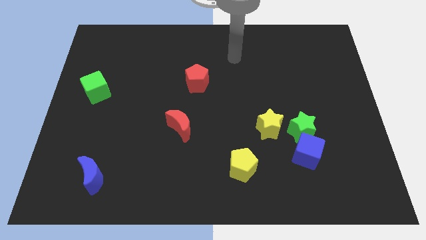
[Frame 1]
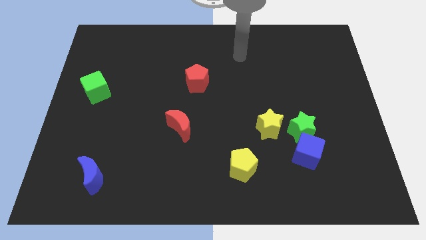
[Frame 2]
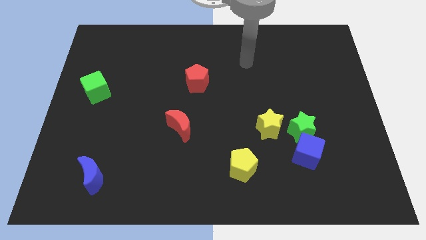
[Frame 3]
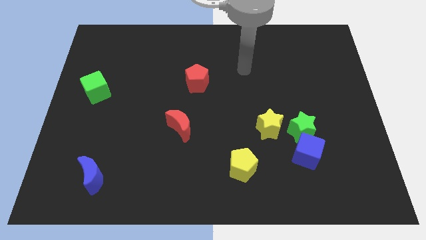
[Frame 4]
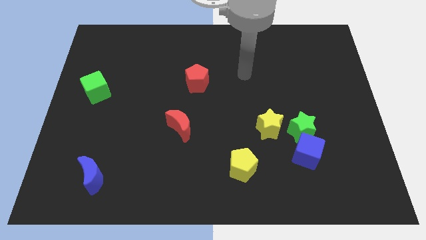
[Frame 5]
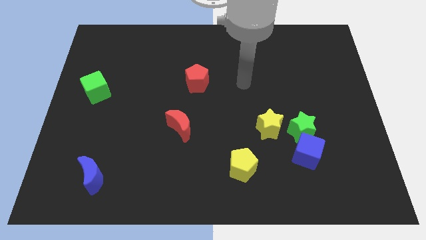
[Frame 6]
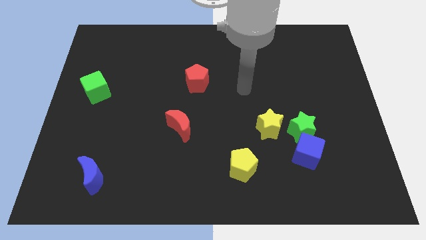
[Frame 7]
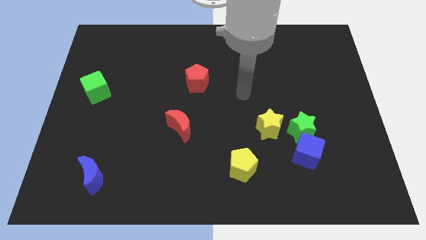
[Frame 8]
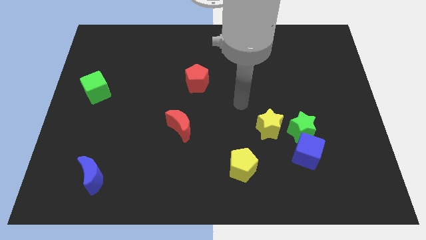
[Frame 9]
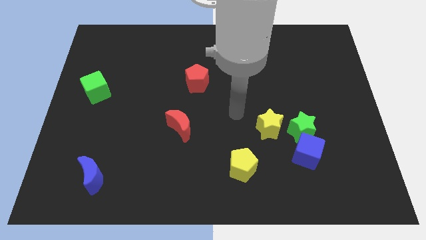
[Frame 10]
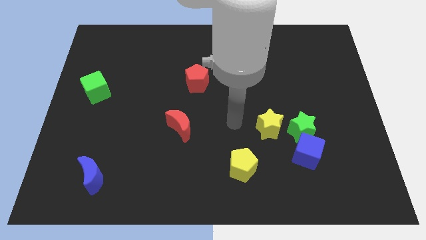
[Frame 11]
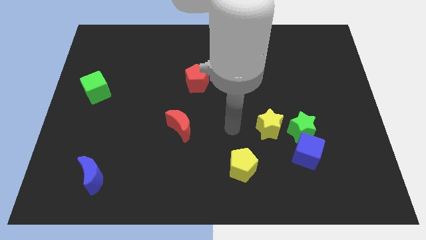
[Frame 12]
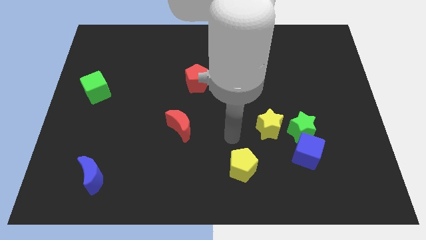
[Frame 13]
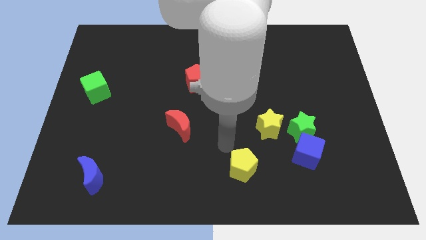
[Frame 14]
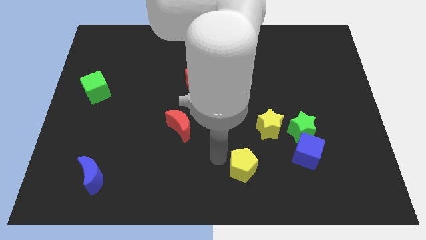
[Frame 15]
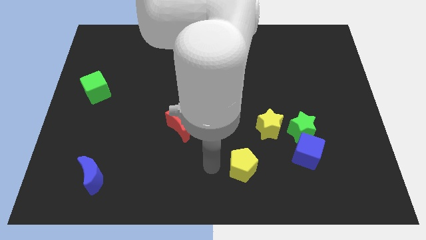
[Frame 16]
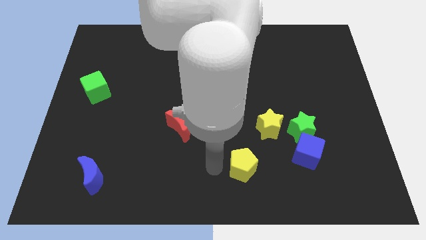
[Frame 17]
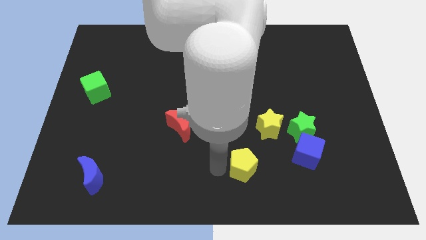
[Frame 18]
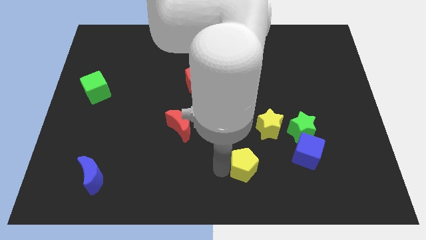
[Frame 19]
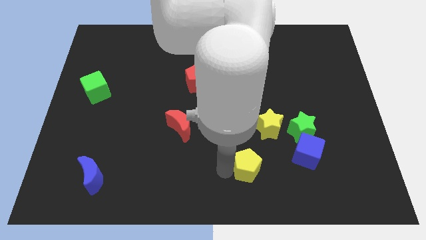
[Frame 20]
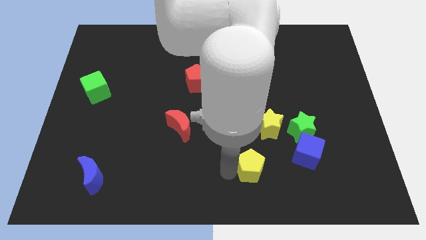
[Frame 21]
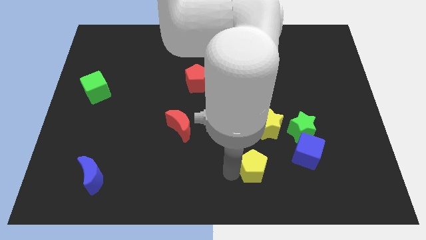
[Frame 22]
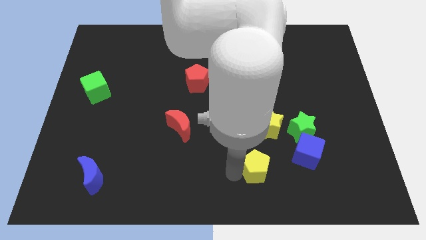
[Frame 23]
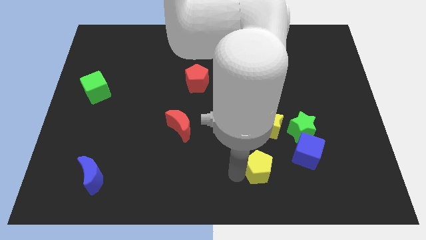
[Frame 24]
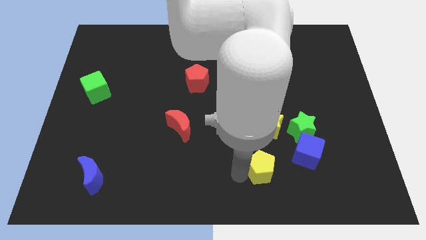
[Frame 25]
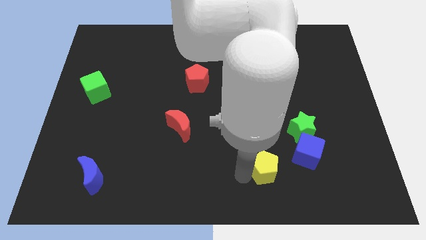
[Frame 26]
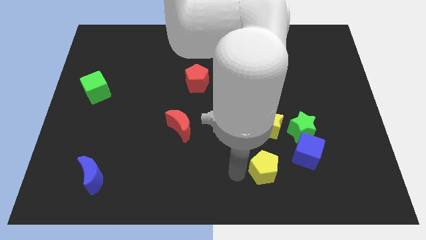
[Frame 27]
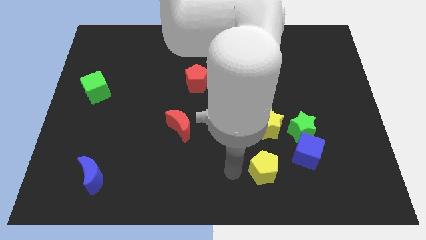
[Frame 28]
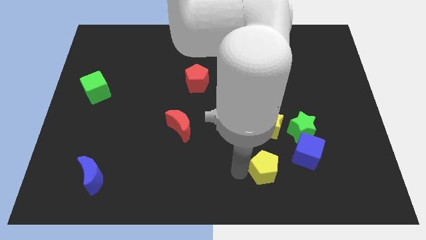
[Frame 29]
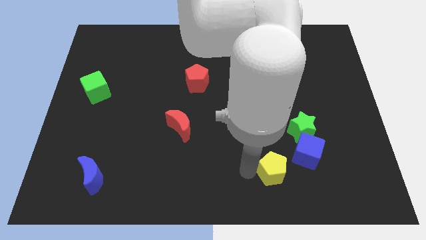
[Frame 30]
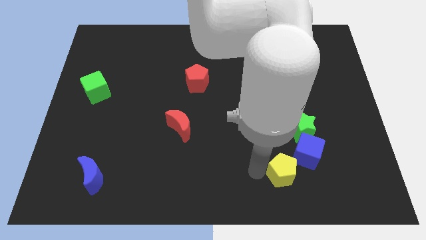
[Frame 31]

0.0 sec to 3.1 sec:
slightly slide the yellow pentagon right

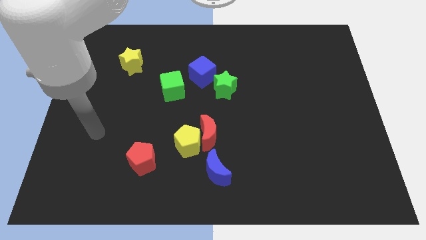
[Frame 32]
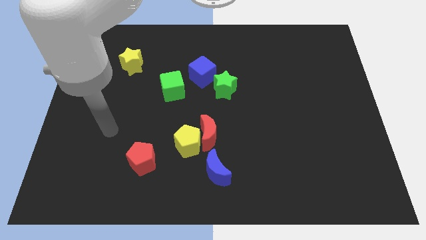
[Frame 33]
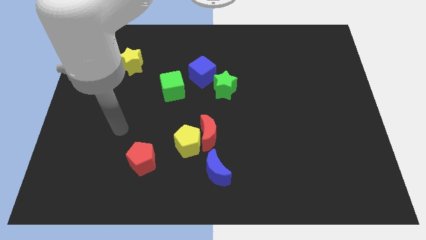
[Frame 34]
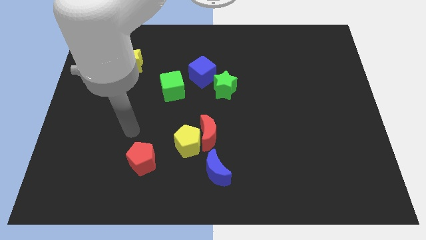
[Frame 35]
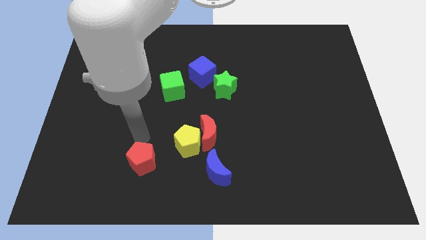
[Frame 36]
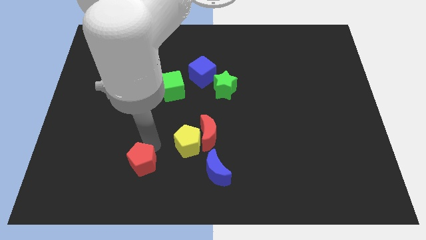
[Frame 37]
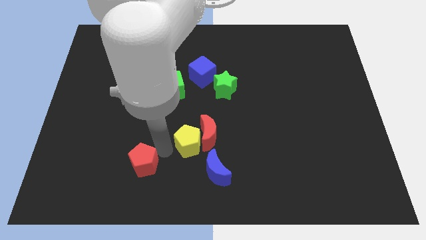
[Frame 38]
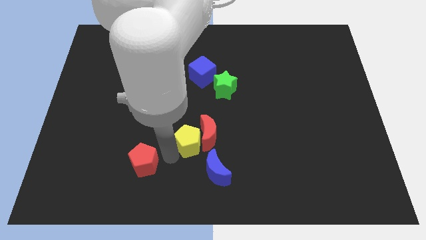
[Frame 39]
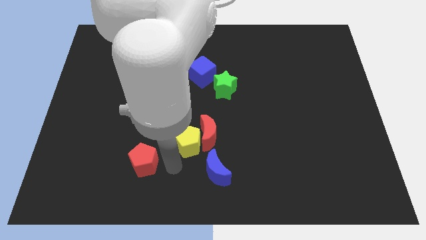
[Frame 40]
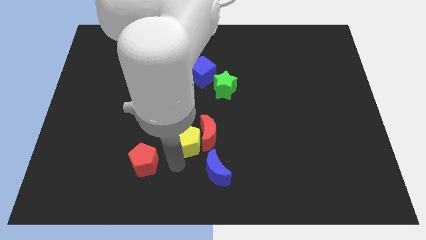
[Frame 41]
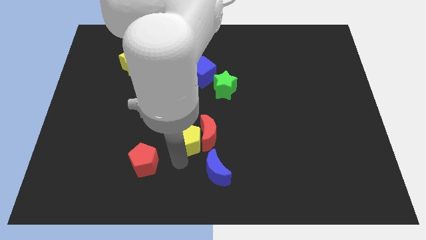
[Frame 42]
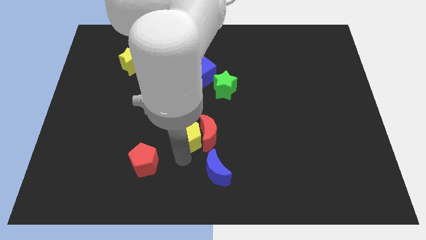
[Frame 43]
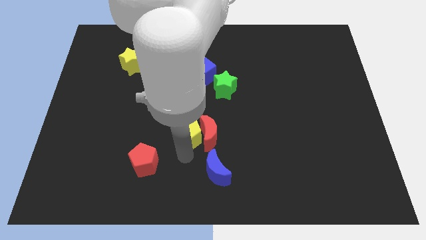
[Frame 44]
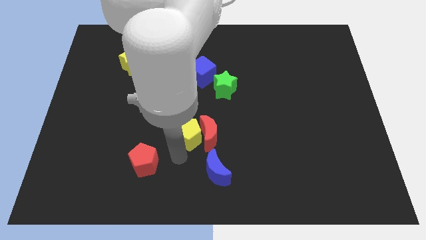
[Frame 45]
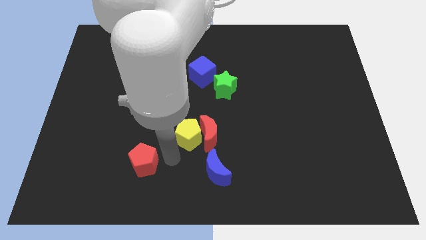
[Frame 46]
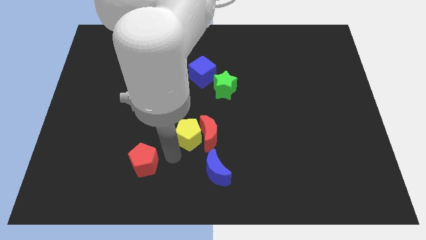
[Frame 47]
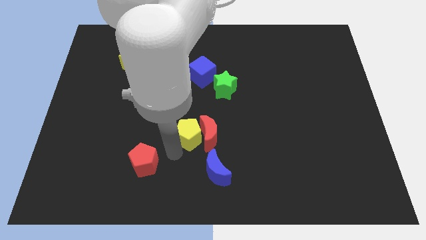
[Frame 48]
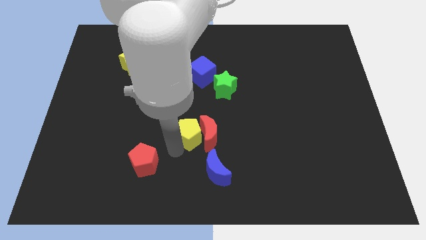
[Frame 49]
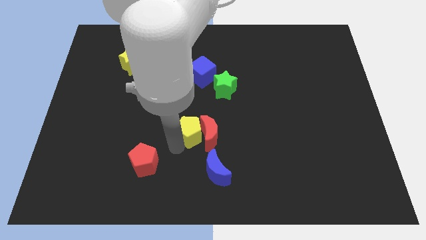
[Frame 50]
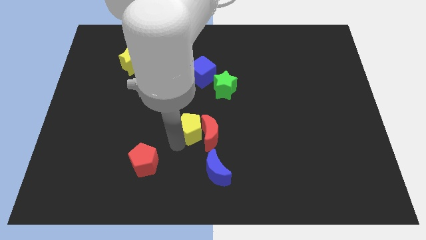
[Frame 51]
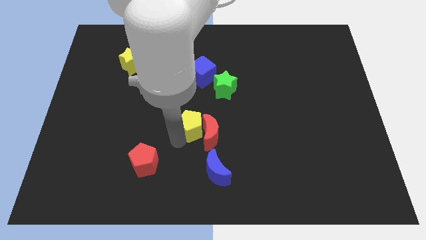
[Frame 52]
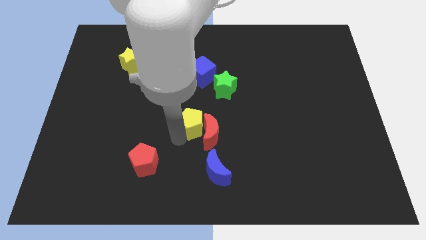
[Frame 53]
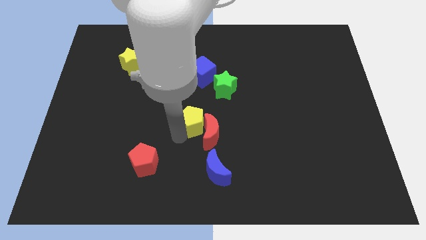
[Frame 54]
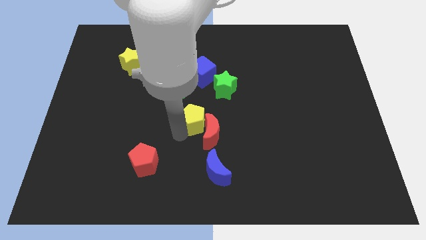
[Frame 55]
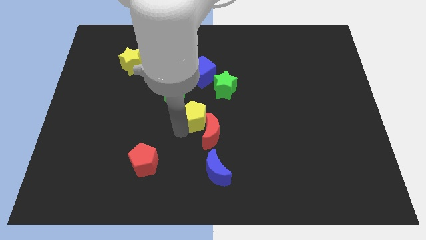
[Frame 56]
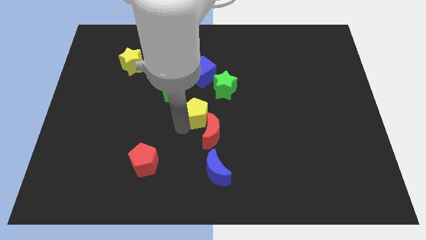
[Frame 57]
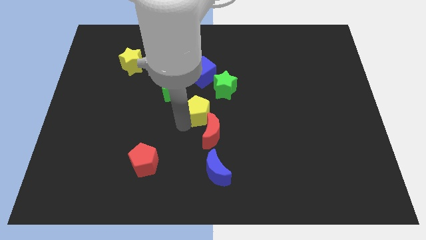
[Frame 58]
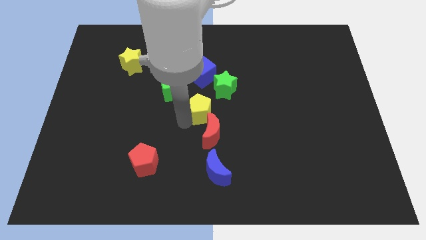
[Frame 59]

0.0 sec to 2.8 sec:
slightly push the yellow pentagon up and right diagonally

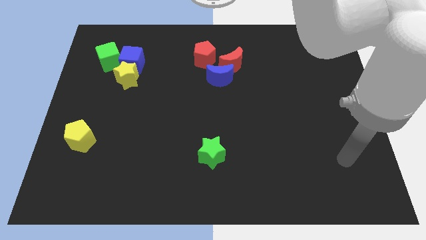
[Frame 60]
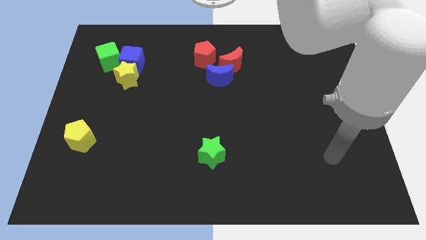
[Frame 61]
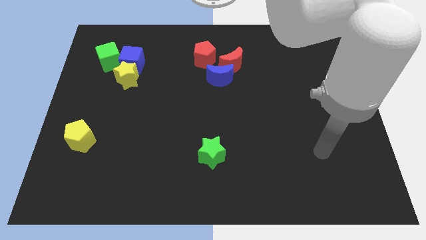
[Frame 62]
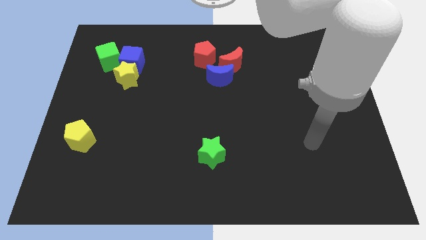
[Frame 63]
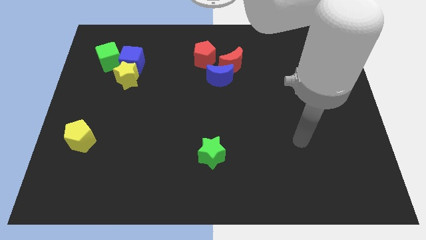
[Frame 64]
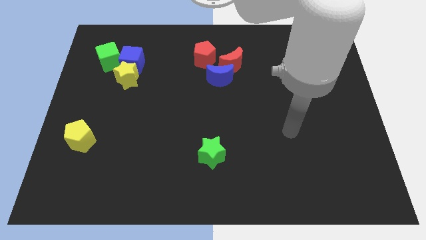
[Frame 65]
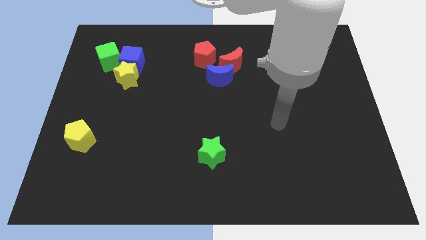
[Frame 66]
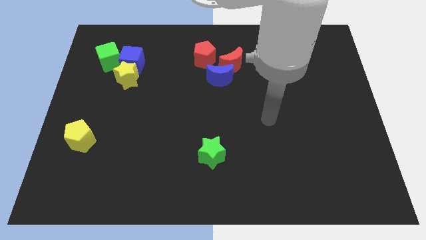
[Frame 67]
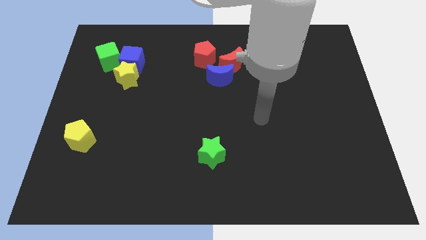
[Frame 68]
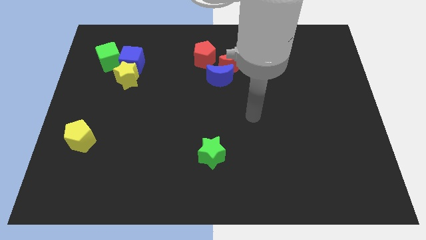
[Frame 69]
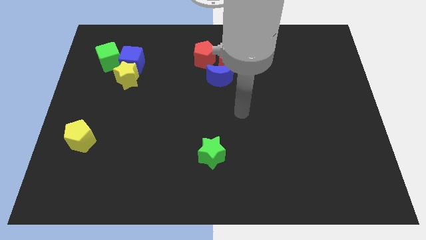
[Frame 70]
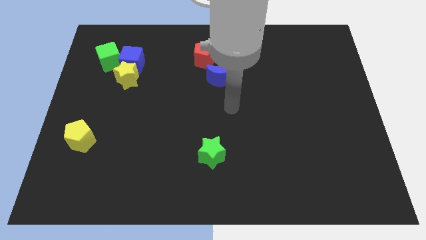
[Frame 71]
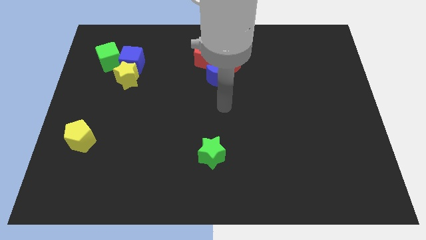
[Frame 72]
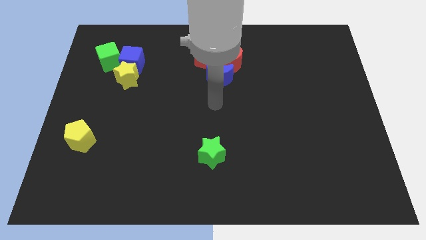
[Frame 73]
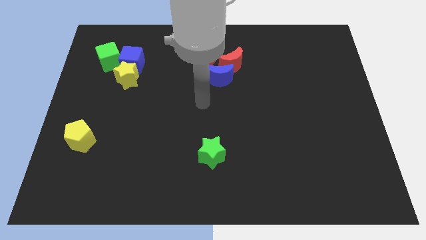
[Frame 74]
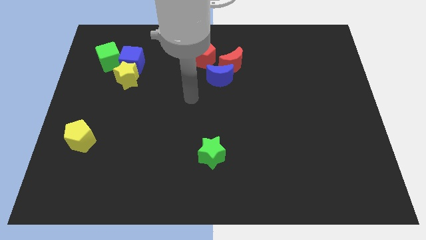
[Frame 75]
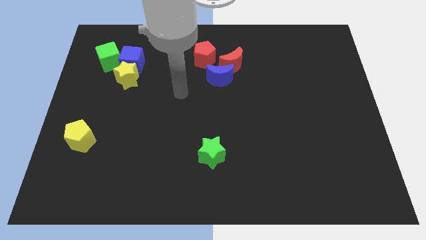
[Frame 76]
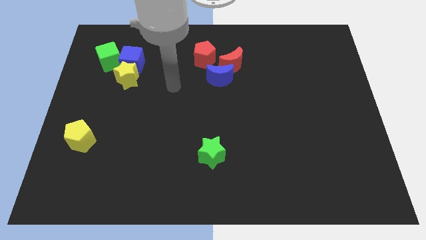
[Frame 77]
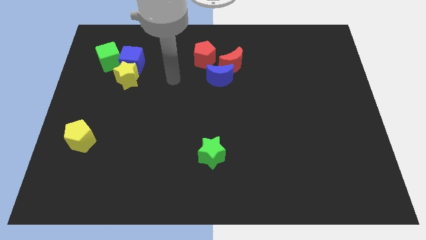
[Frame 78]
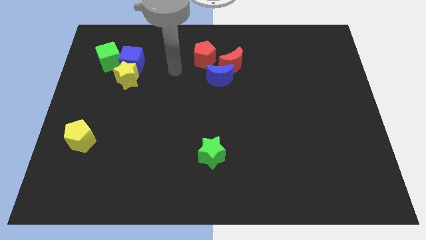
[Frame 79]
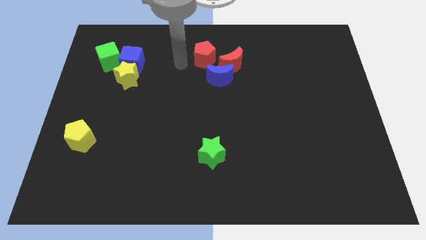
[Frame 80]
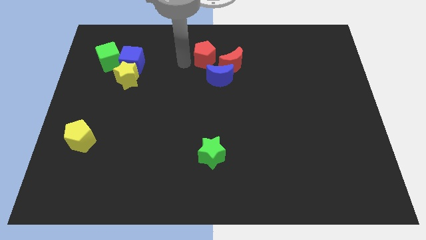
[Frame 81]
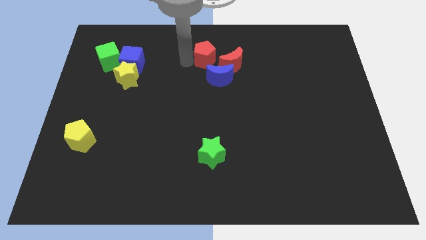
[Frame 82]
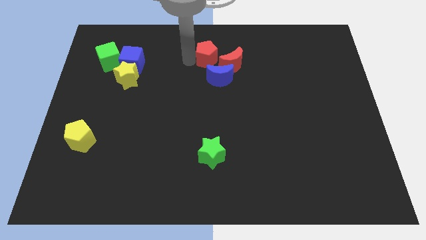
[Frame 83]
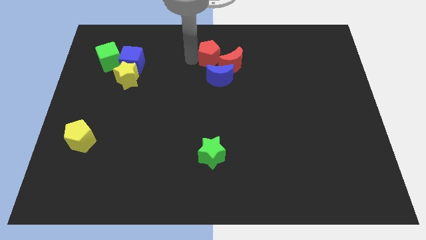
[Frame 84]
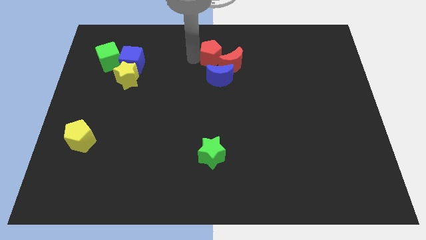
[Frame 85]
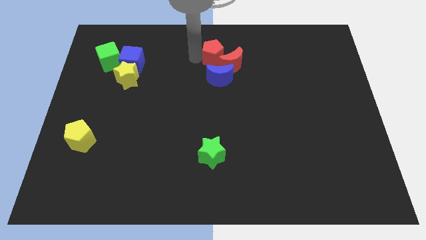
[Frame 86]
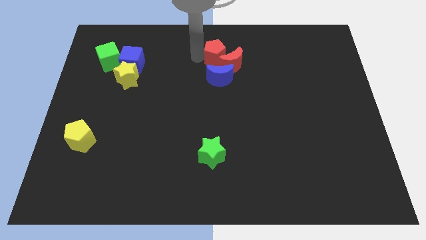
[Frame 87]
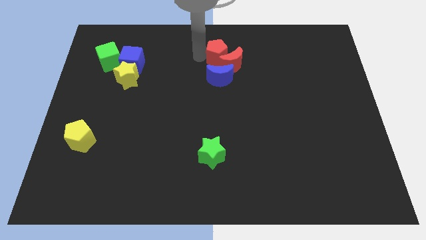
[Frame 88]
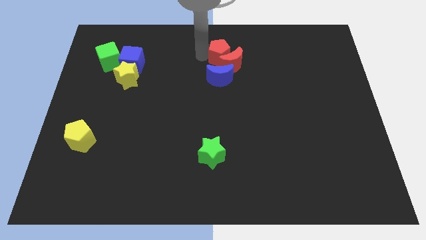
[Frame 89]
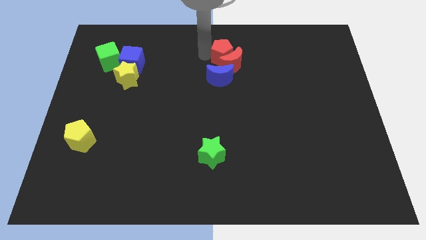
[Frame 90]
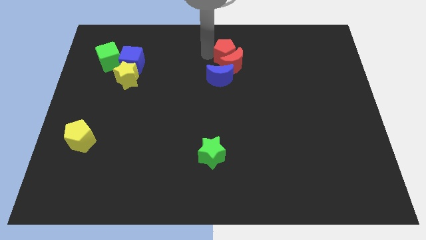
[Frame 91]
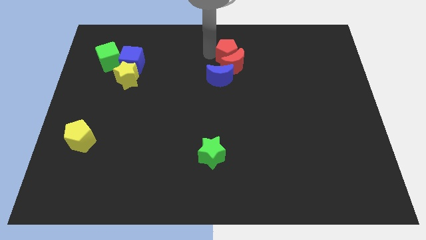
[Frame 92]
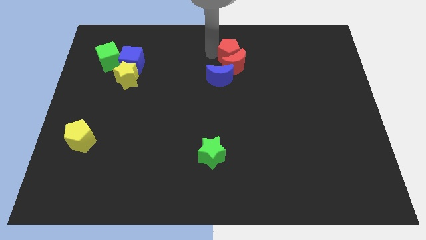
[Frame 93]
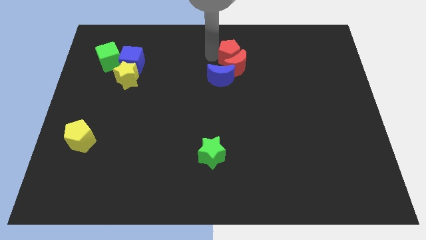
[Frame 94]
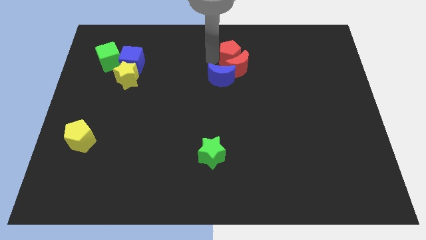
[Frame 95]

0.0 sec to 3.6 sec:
slide the red pentagon right a little
